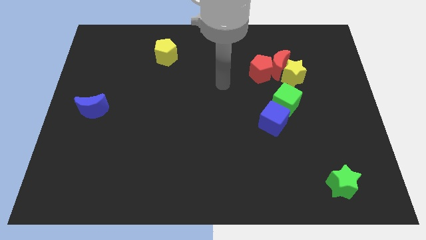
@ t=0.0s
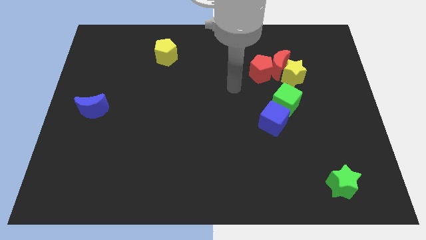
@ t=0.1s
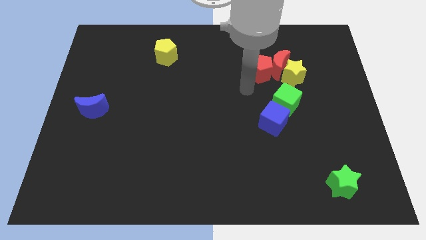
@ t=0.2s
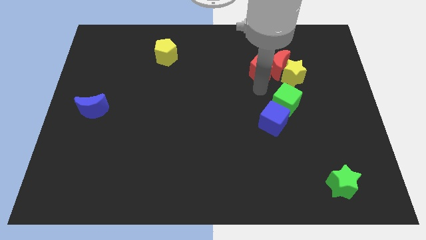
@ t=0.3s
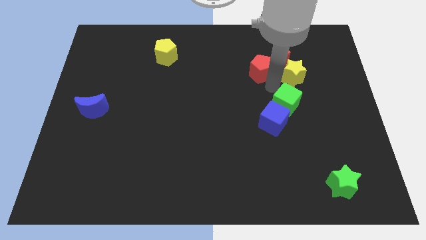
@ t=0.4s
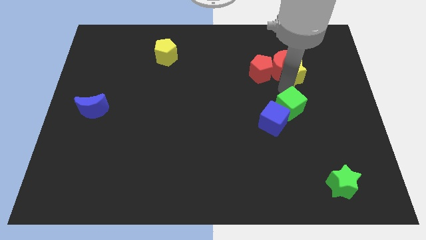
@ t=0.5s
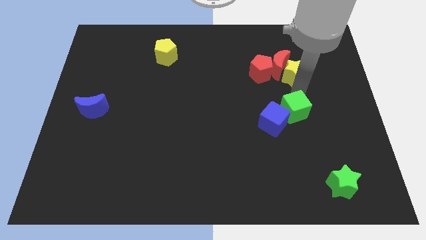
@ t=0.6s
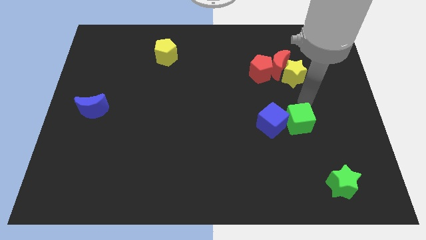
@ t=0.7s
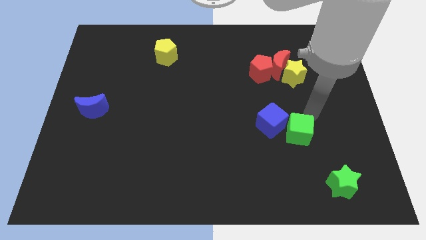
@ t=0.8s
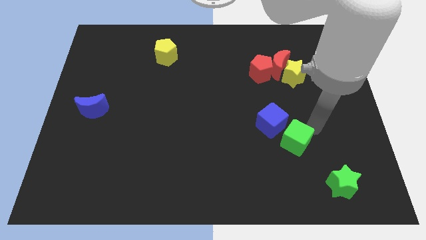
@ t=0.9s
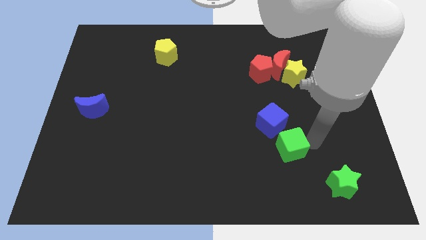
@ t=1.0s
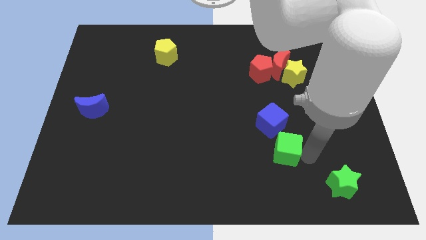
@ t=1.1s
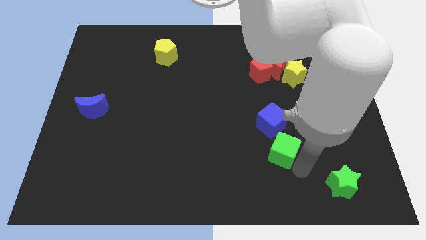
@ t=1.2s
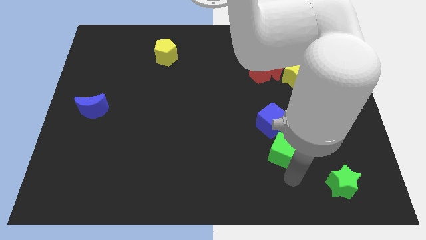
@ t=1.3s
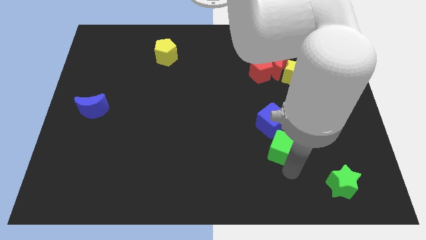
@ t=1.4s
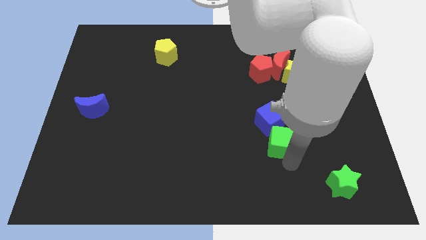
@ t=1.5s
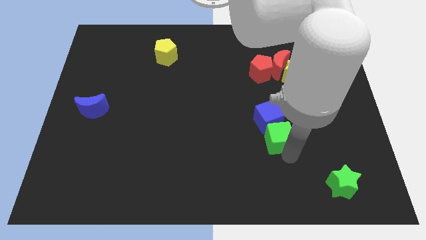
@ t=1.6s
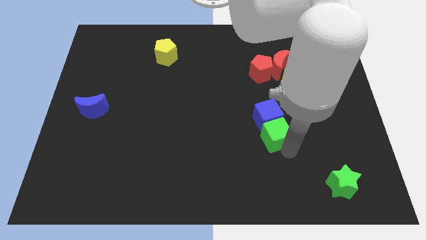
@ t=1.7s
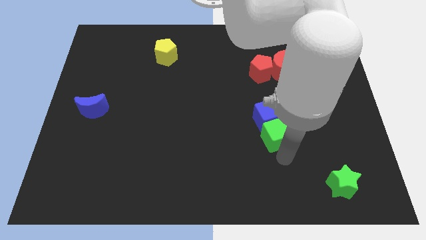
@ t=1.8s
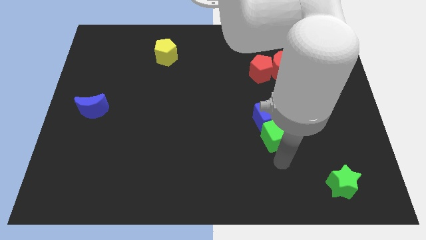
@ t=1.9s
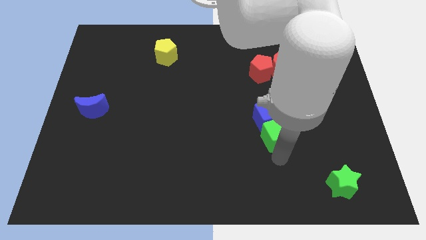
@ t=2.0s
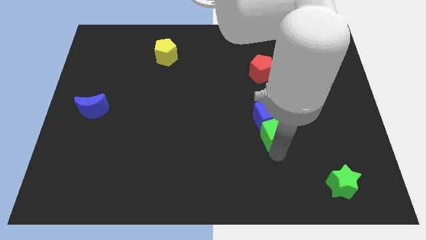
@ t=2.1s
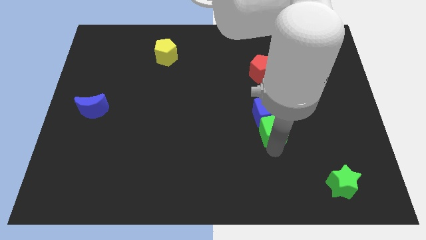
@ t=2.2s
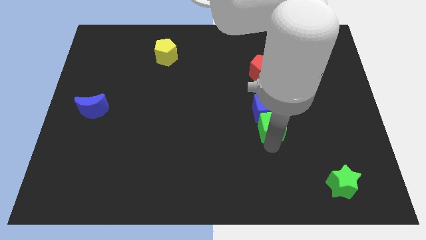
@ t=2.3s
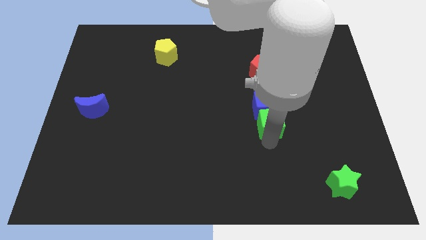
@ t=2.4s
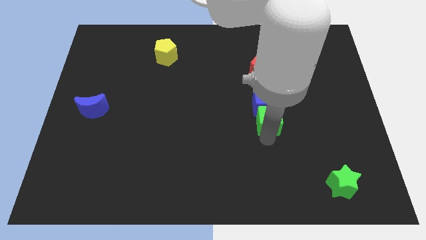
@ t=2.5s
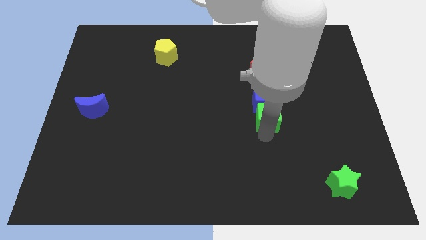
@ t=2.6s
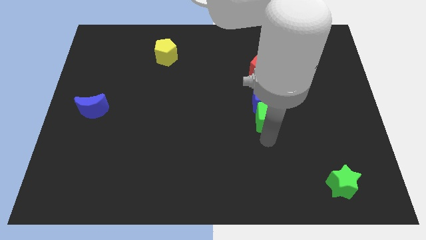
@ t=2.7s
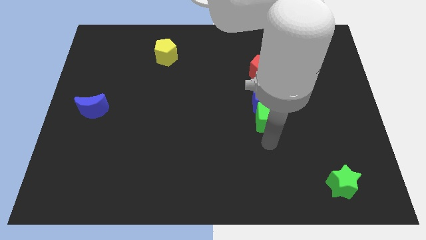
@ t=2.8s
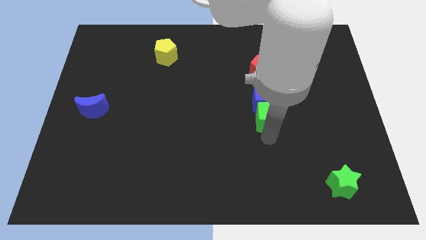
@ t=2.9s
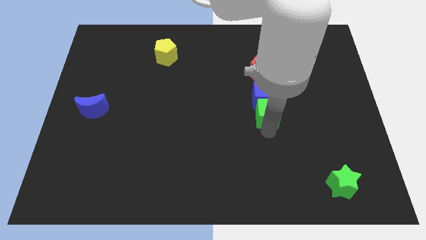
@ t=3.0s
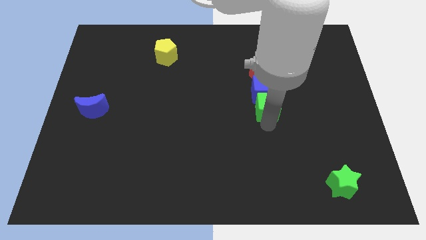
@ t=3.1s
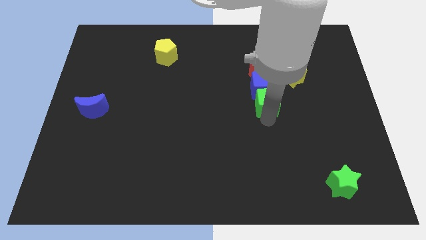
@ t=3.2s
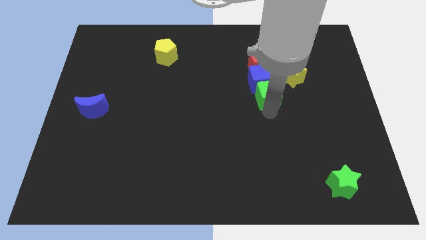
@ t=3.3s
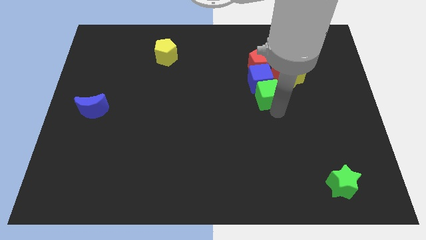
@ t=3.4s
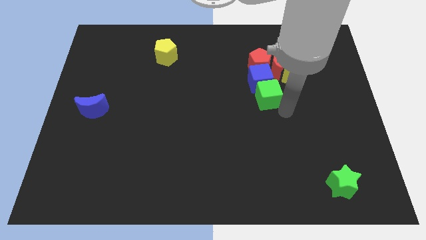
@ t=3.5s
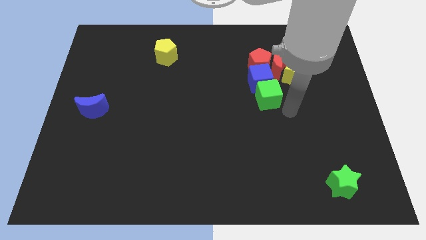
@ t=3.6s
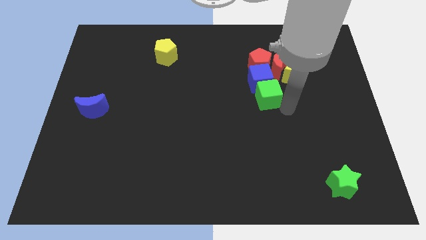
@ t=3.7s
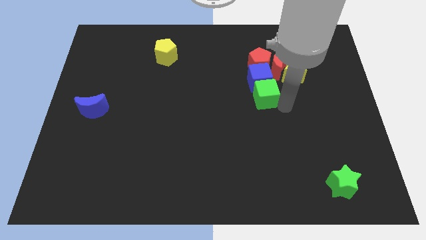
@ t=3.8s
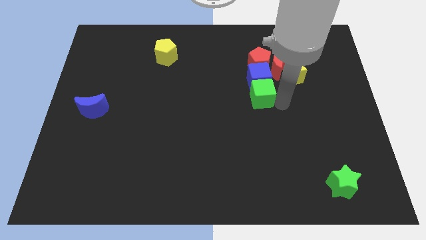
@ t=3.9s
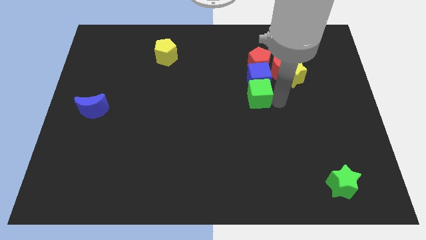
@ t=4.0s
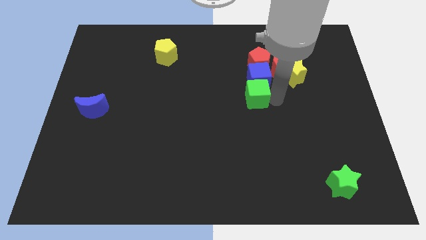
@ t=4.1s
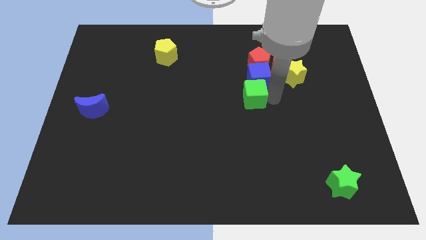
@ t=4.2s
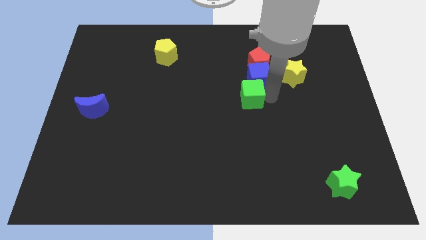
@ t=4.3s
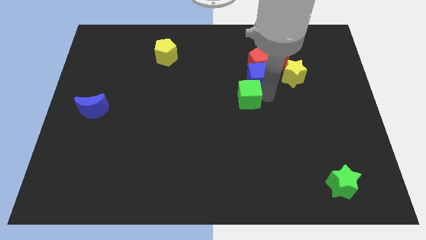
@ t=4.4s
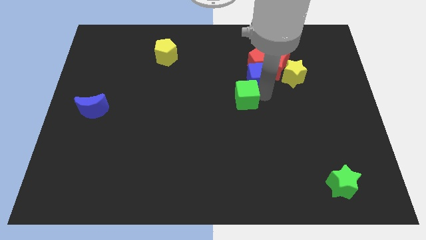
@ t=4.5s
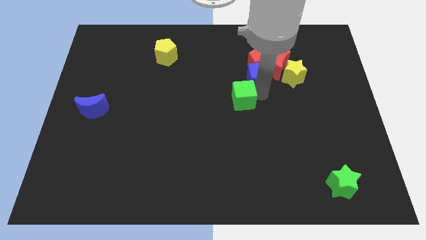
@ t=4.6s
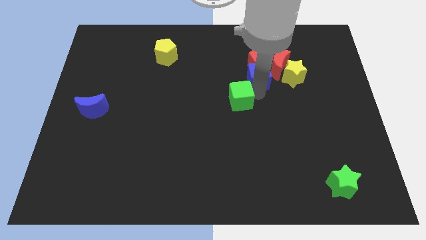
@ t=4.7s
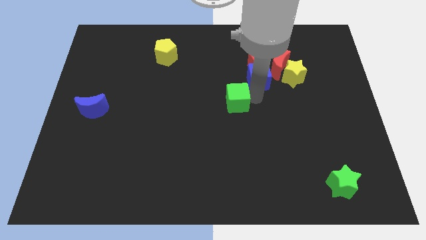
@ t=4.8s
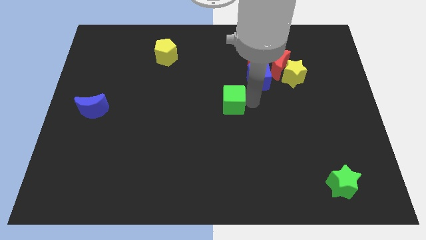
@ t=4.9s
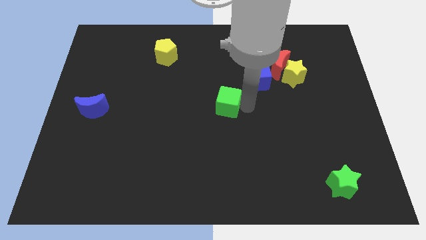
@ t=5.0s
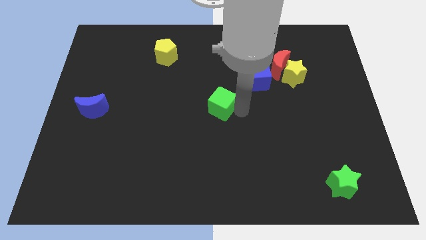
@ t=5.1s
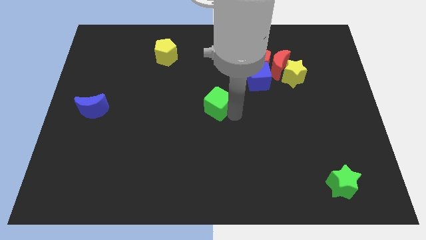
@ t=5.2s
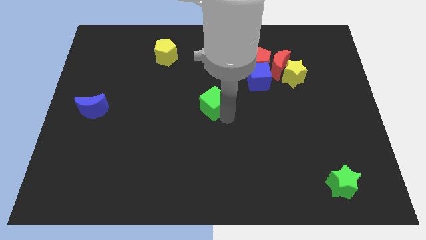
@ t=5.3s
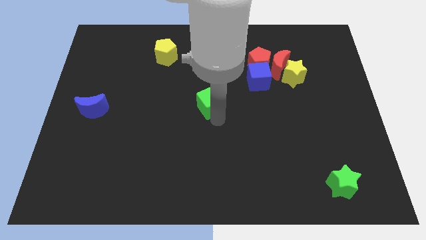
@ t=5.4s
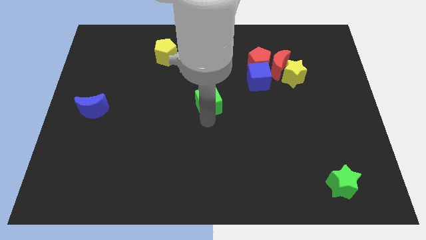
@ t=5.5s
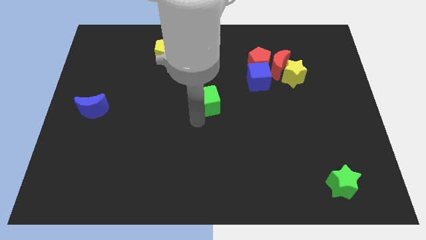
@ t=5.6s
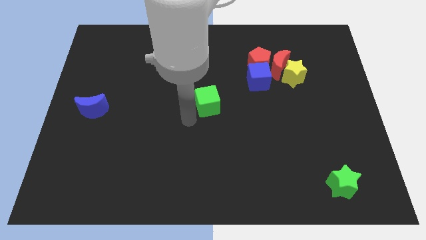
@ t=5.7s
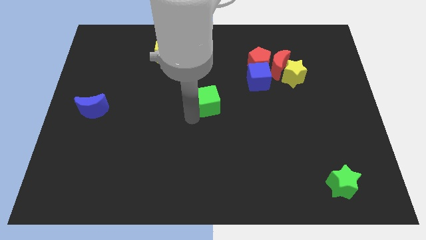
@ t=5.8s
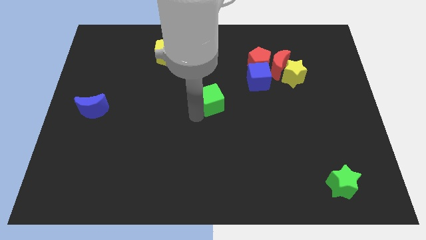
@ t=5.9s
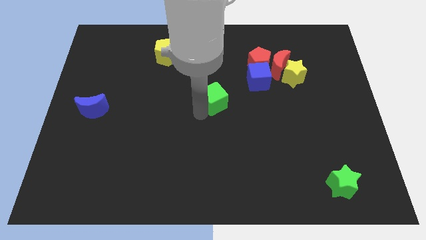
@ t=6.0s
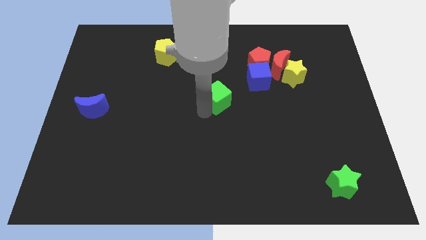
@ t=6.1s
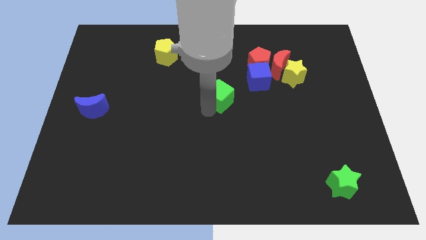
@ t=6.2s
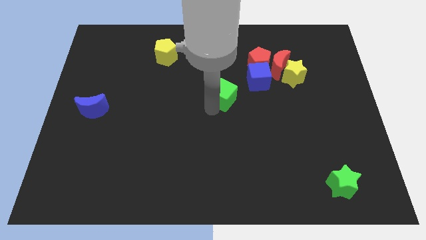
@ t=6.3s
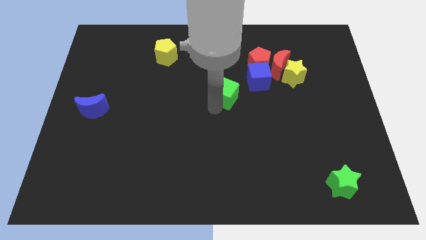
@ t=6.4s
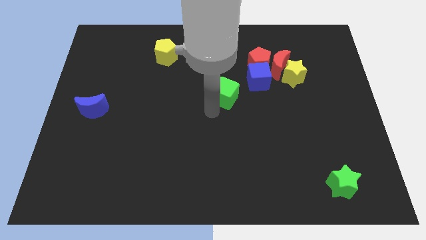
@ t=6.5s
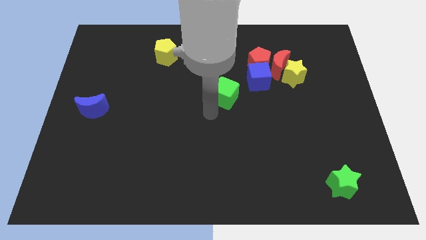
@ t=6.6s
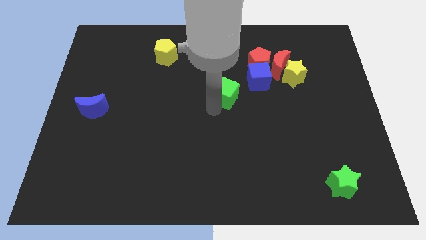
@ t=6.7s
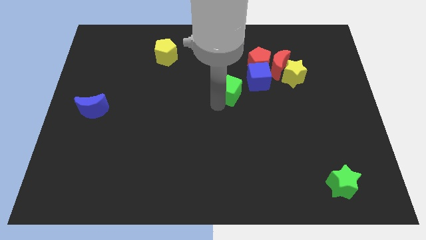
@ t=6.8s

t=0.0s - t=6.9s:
move the green cube diagonally down and to the left of the red pentagon

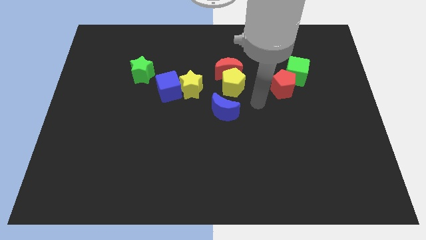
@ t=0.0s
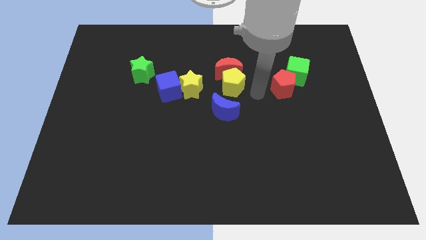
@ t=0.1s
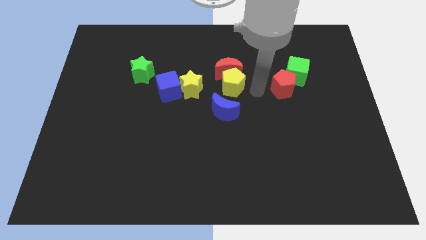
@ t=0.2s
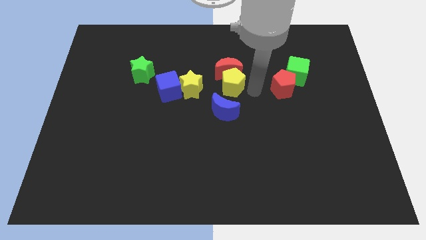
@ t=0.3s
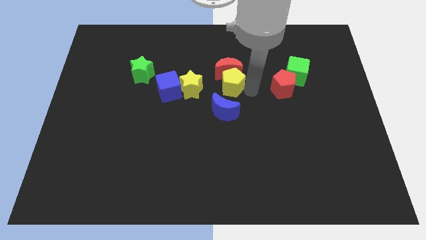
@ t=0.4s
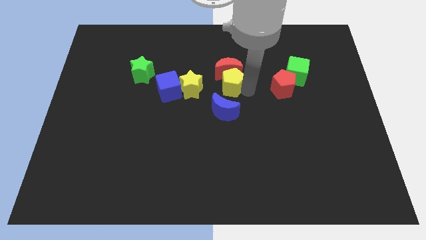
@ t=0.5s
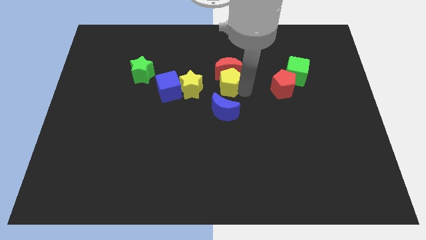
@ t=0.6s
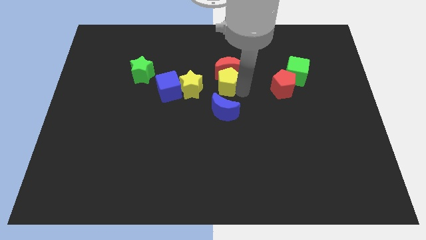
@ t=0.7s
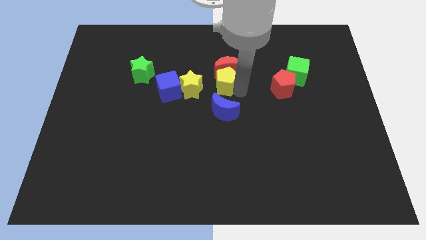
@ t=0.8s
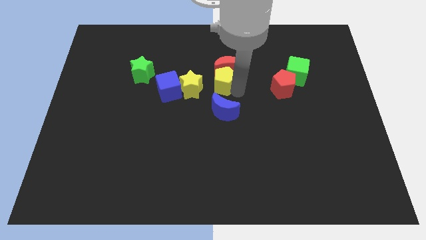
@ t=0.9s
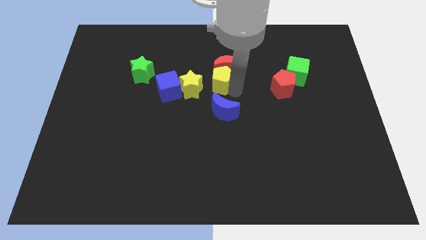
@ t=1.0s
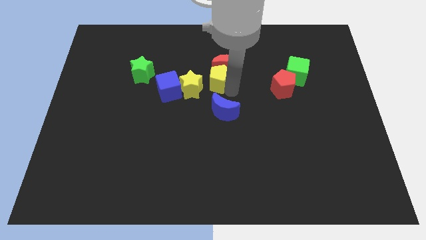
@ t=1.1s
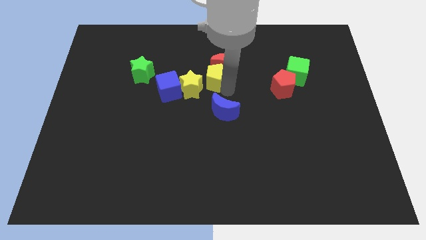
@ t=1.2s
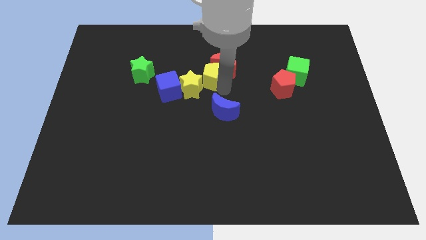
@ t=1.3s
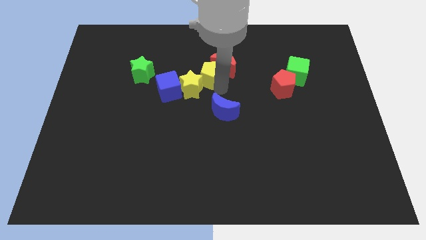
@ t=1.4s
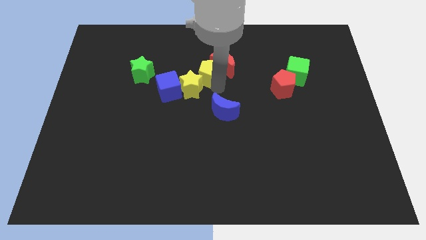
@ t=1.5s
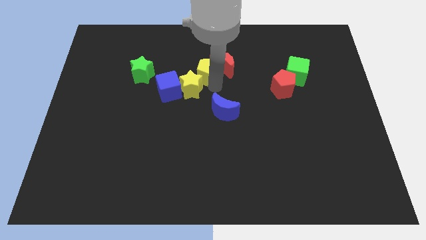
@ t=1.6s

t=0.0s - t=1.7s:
move the yellow pentagon to the right of the green star
